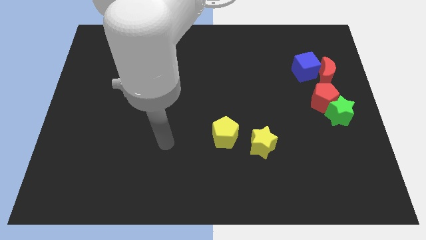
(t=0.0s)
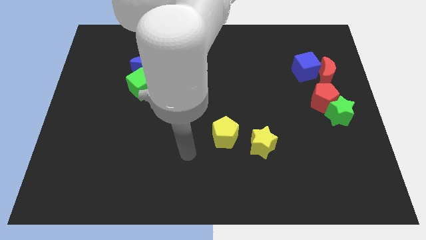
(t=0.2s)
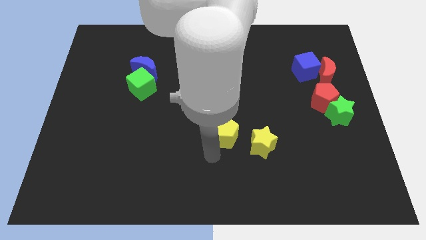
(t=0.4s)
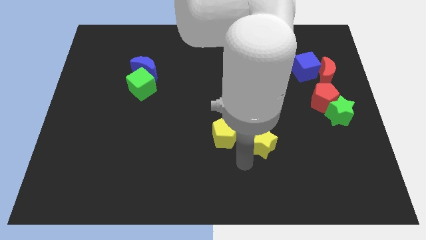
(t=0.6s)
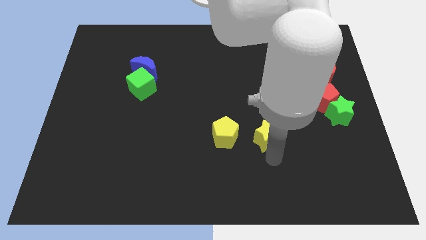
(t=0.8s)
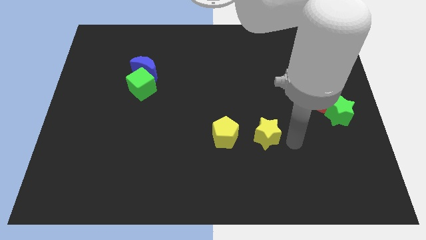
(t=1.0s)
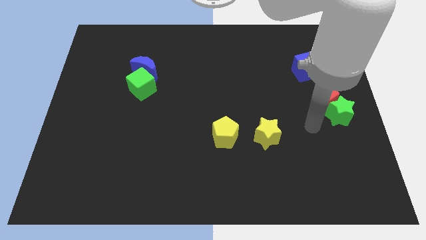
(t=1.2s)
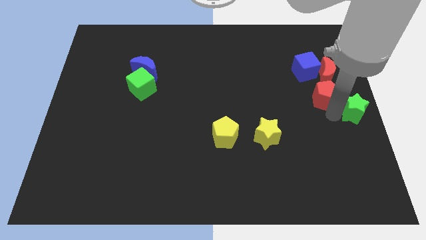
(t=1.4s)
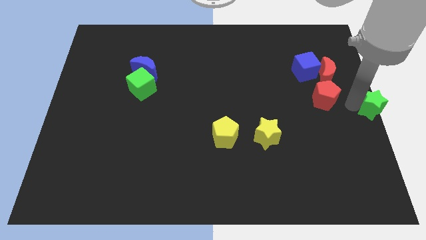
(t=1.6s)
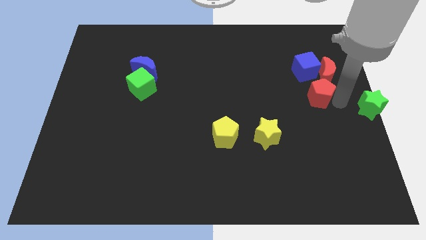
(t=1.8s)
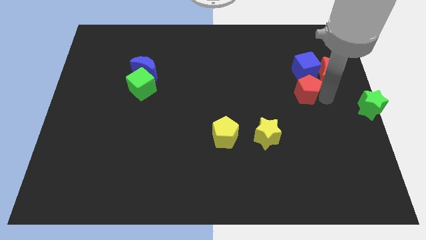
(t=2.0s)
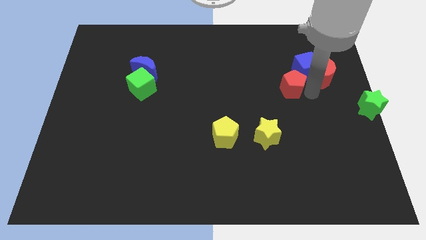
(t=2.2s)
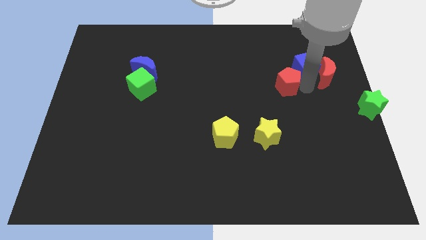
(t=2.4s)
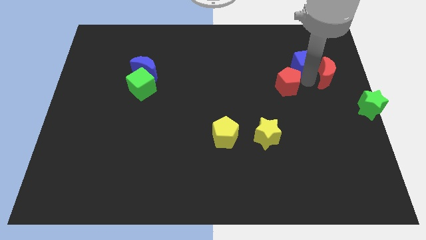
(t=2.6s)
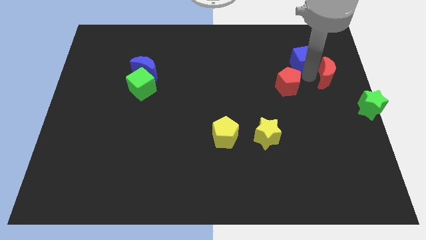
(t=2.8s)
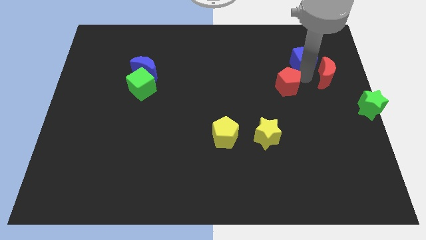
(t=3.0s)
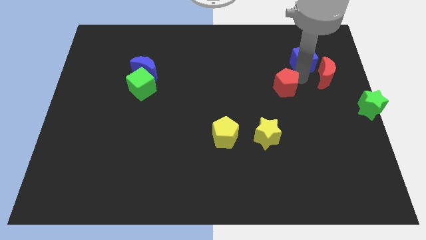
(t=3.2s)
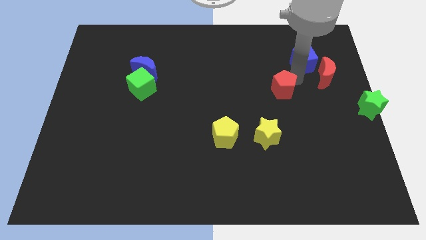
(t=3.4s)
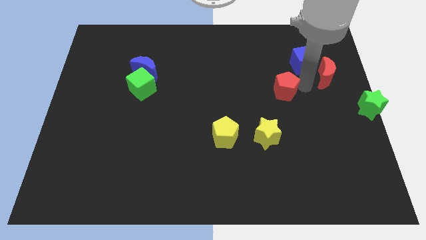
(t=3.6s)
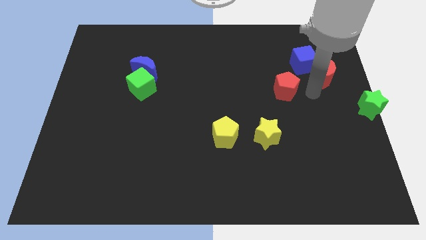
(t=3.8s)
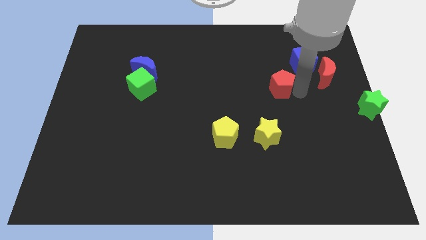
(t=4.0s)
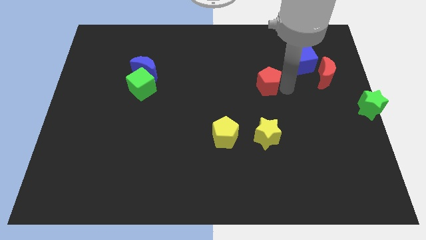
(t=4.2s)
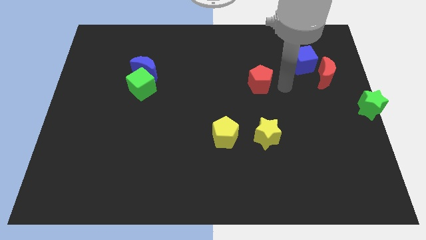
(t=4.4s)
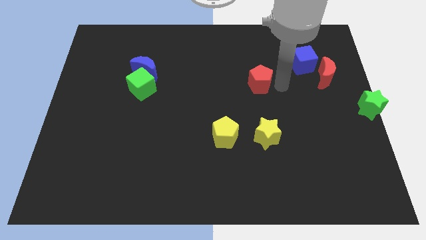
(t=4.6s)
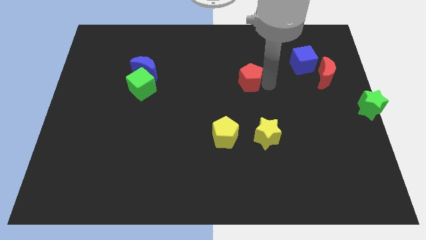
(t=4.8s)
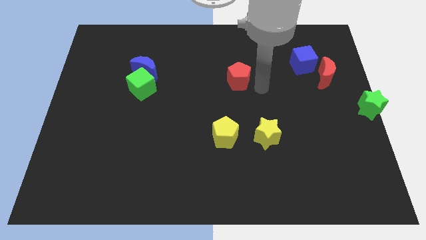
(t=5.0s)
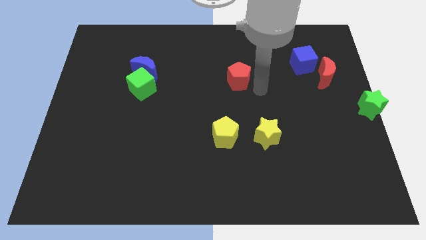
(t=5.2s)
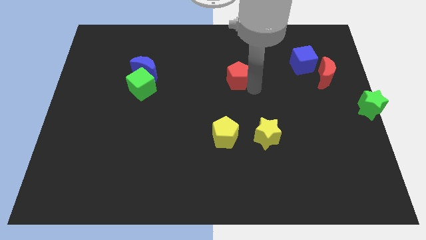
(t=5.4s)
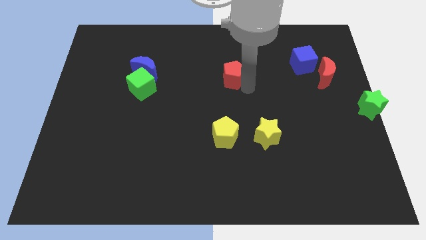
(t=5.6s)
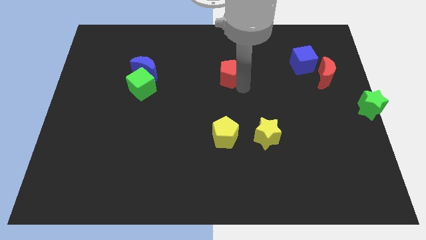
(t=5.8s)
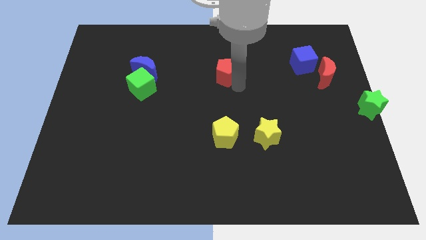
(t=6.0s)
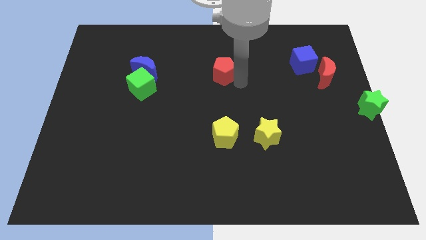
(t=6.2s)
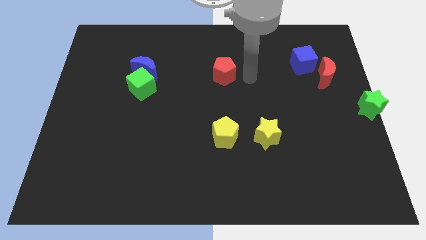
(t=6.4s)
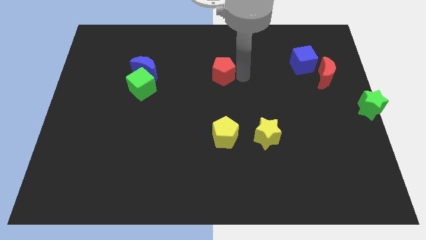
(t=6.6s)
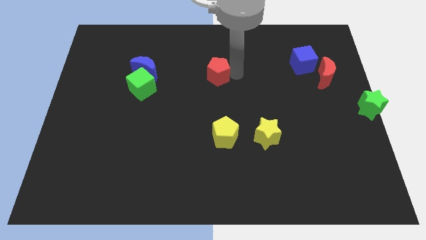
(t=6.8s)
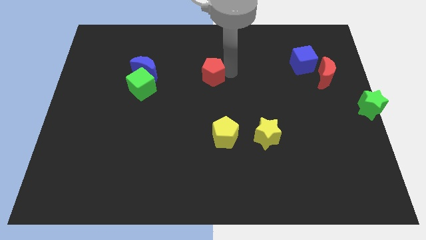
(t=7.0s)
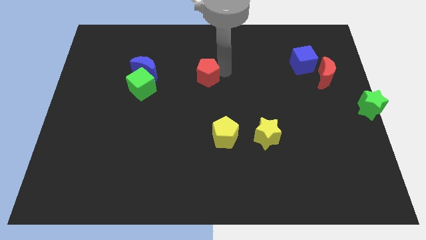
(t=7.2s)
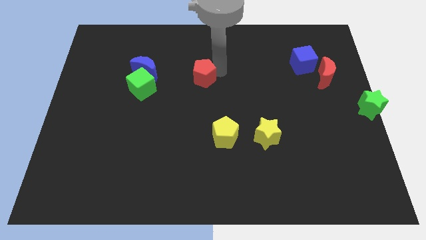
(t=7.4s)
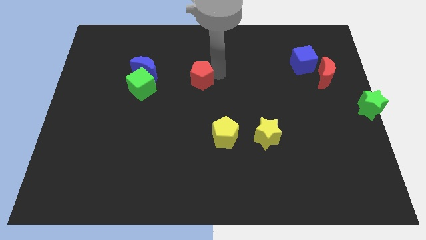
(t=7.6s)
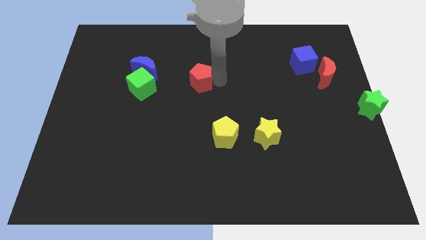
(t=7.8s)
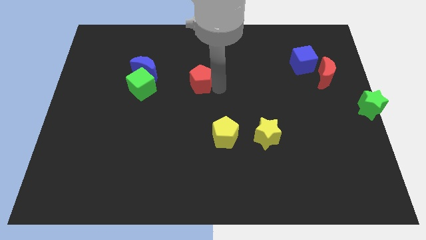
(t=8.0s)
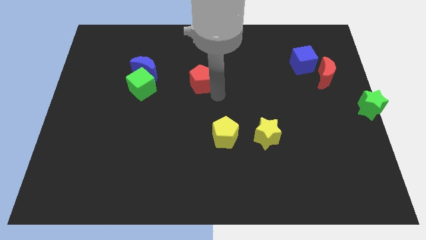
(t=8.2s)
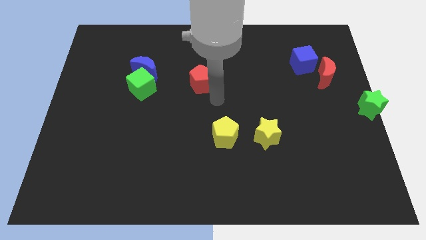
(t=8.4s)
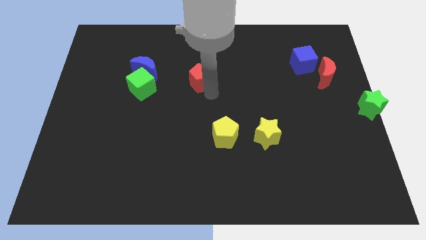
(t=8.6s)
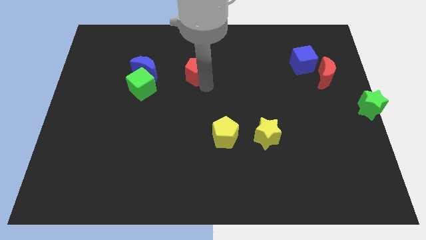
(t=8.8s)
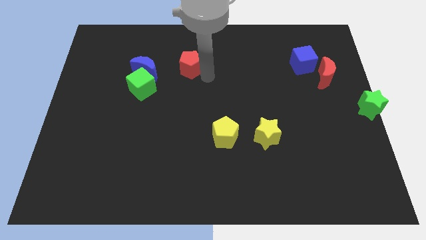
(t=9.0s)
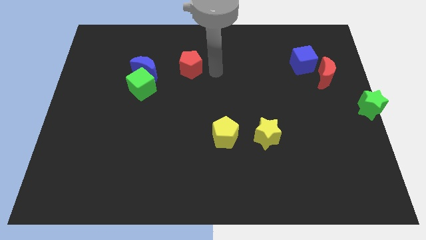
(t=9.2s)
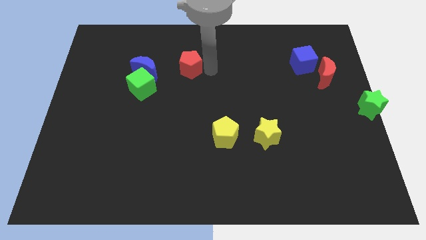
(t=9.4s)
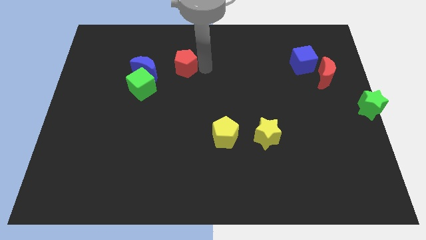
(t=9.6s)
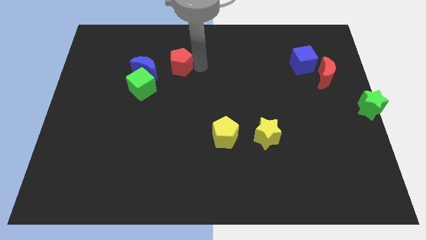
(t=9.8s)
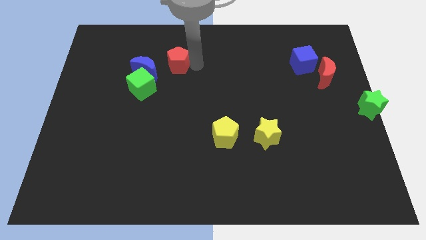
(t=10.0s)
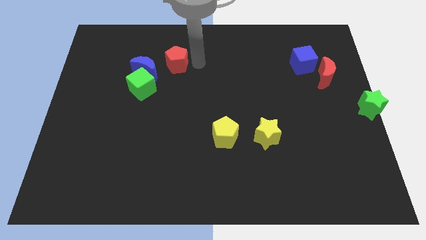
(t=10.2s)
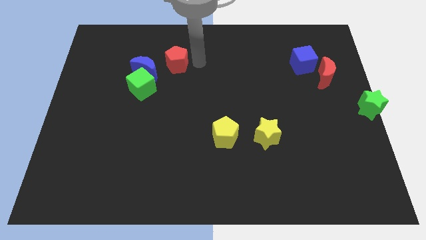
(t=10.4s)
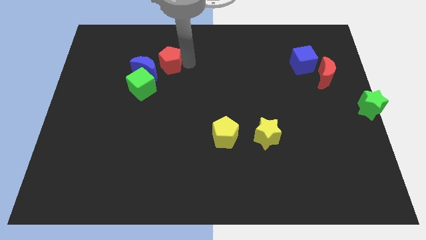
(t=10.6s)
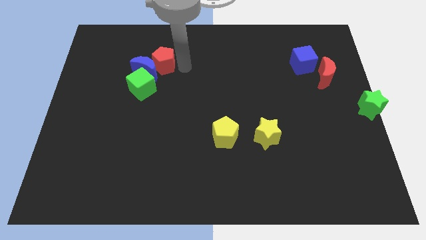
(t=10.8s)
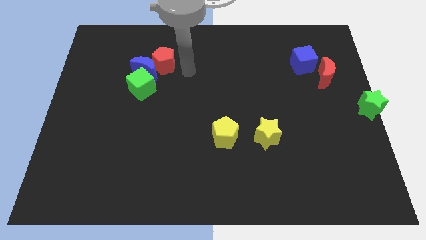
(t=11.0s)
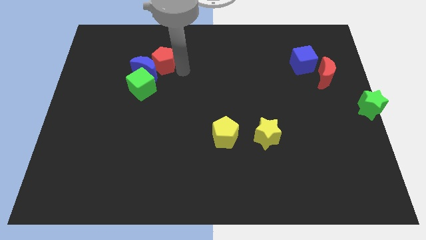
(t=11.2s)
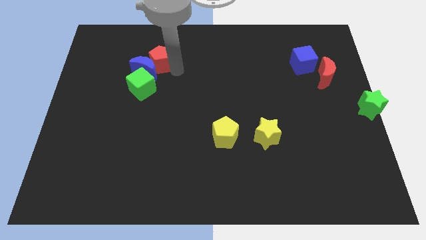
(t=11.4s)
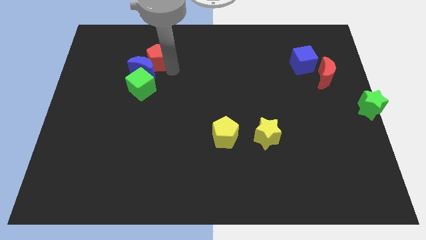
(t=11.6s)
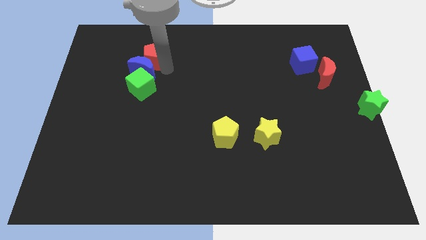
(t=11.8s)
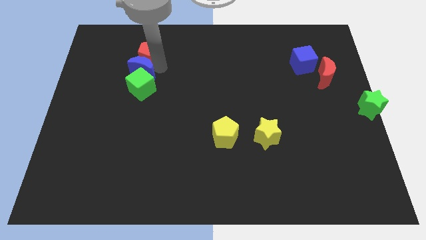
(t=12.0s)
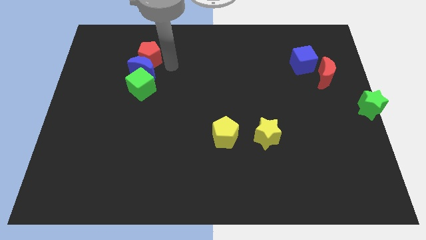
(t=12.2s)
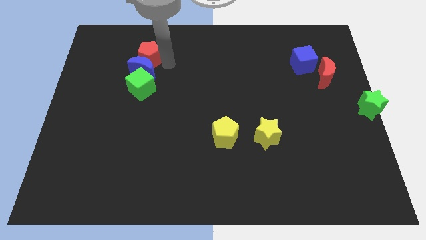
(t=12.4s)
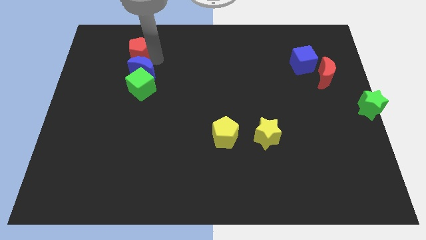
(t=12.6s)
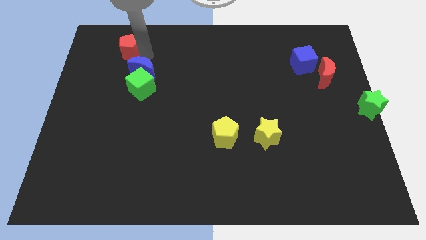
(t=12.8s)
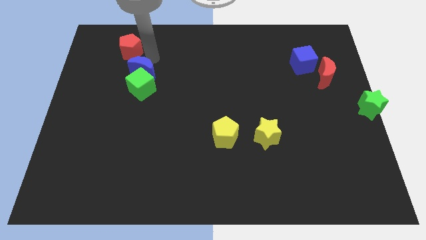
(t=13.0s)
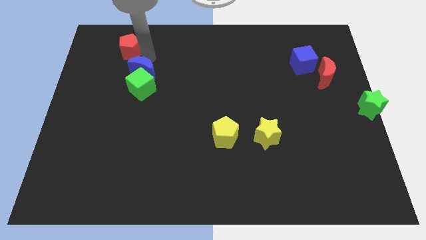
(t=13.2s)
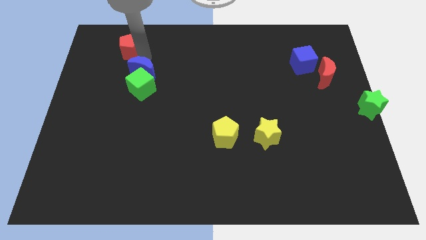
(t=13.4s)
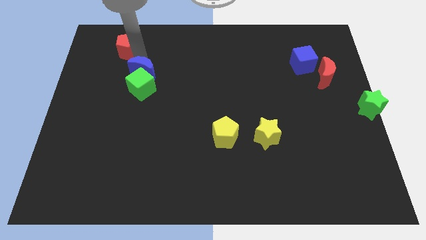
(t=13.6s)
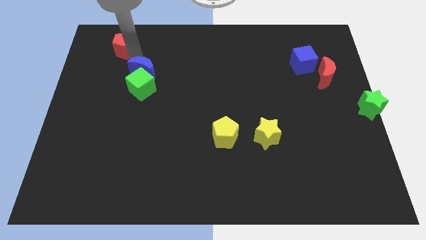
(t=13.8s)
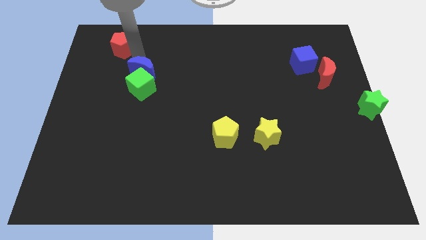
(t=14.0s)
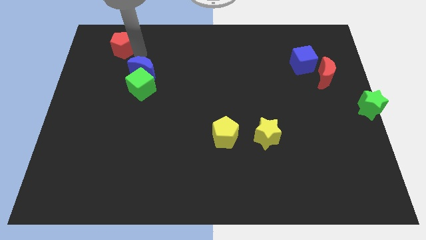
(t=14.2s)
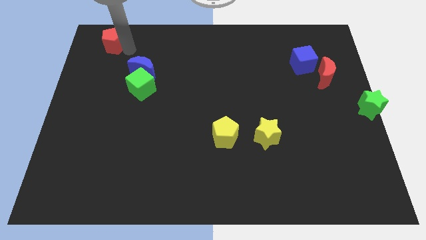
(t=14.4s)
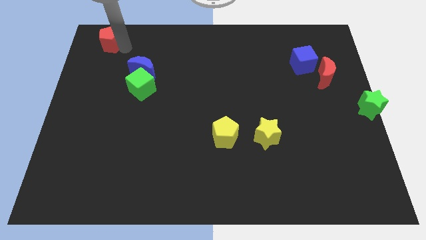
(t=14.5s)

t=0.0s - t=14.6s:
move the red pentagon to the top left corner
